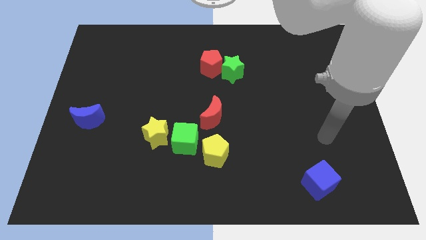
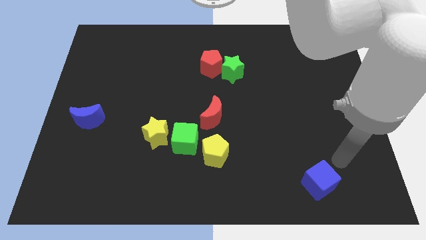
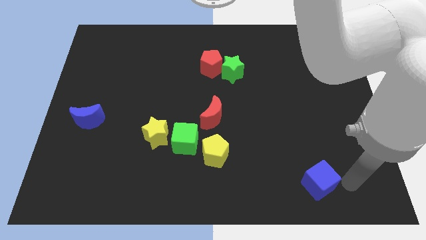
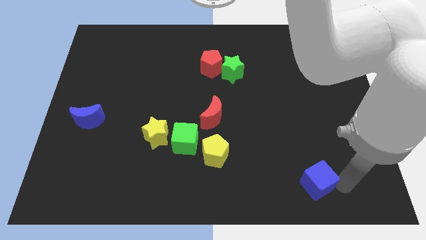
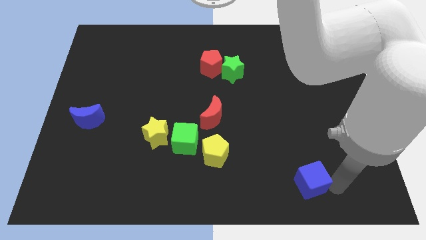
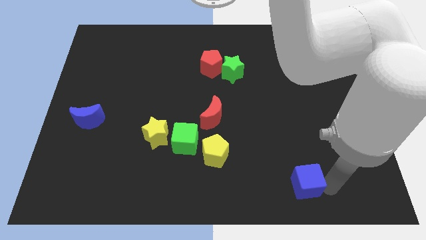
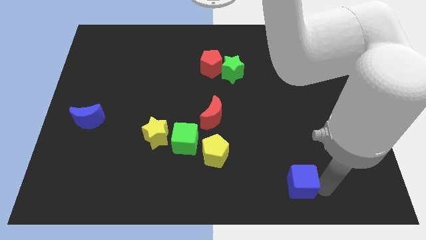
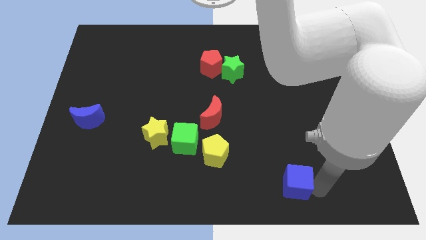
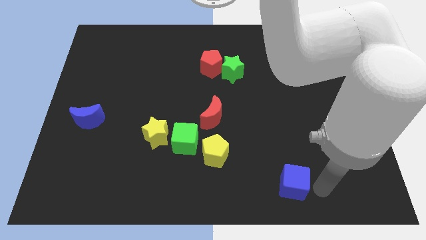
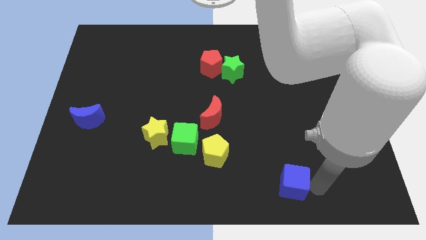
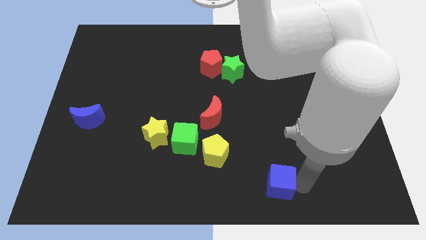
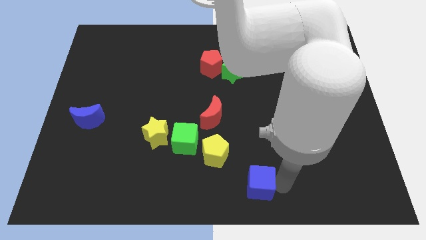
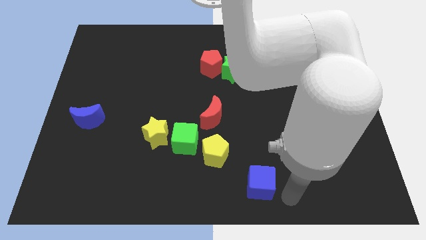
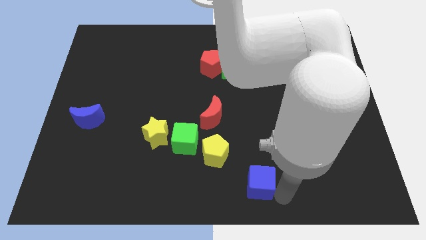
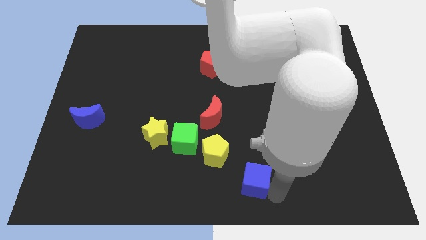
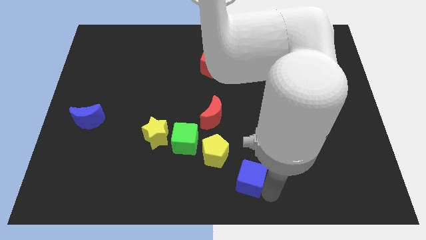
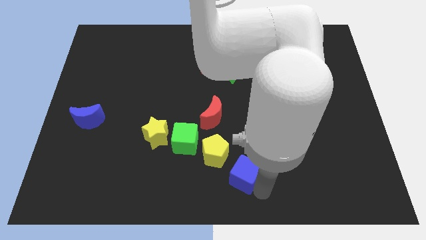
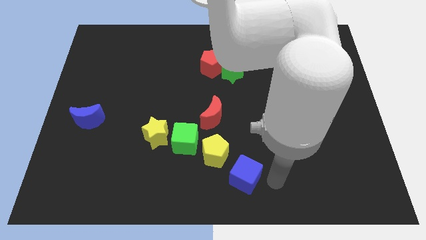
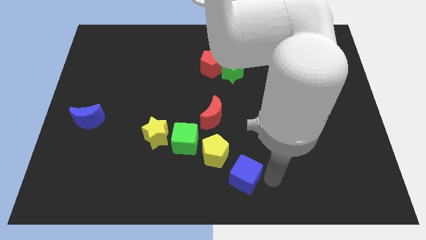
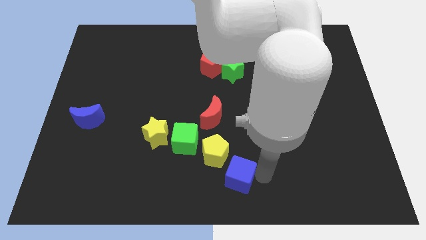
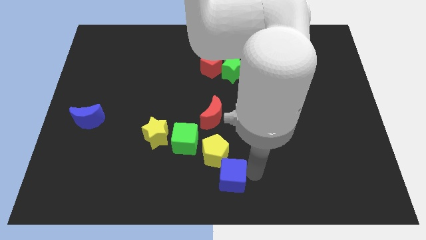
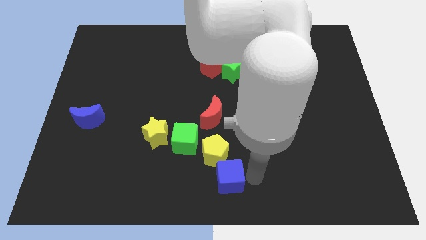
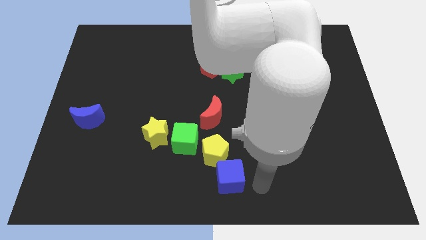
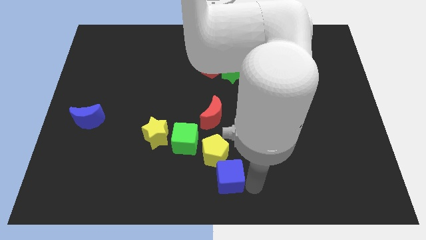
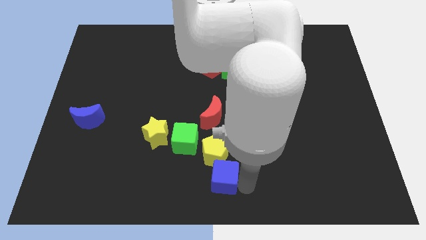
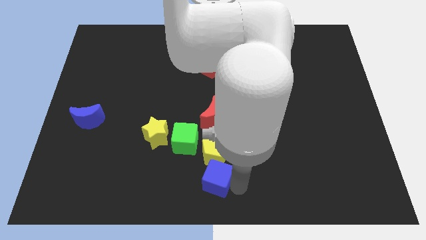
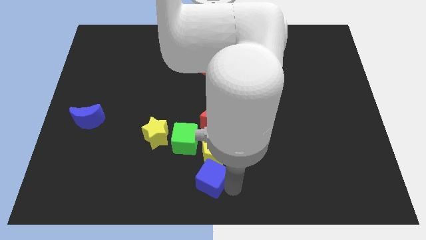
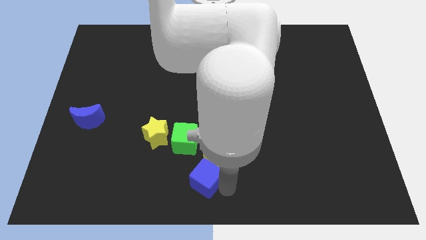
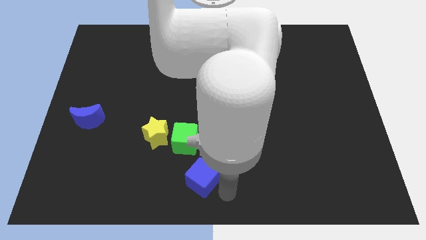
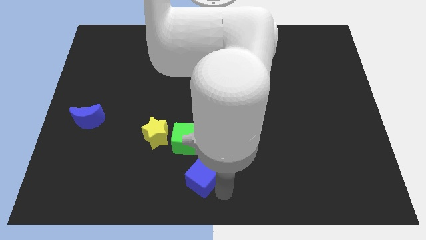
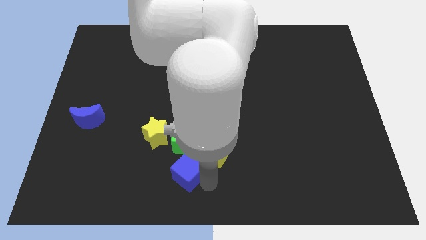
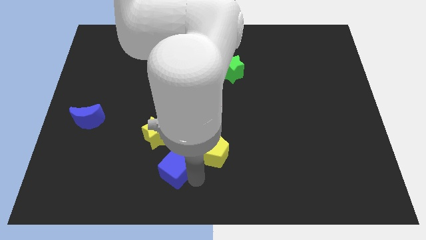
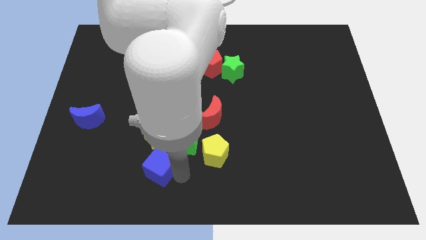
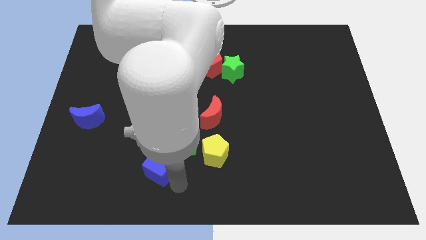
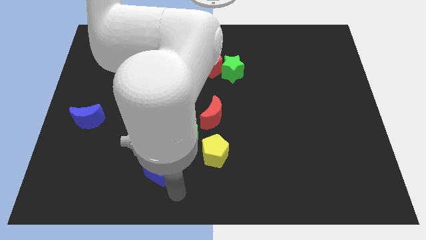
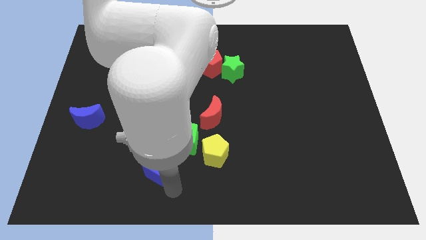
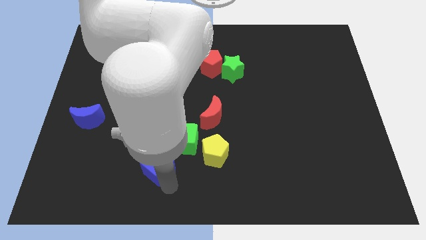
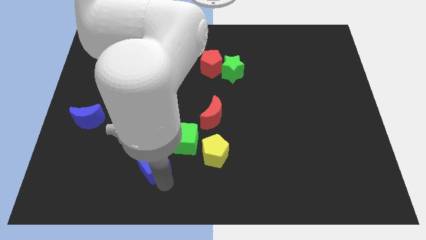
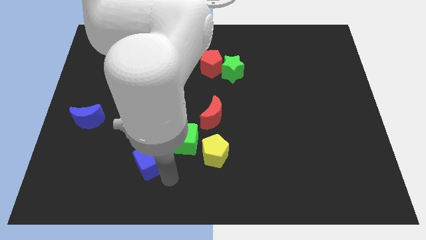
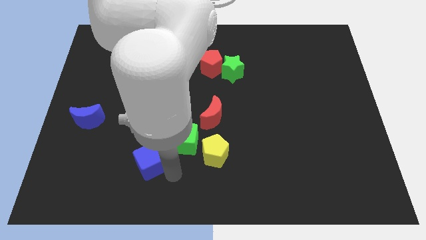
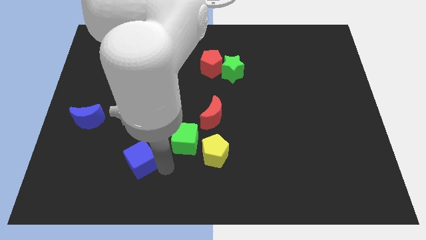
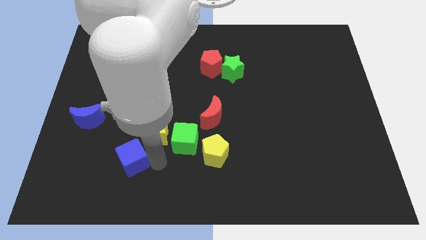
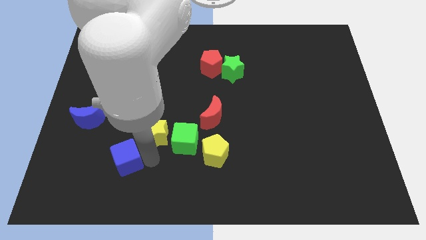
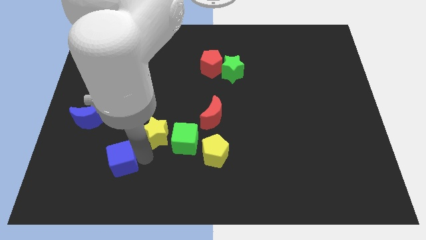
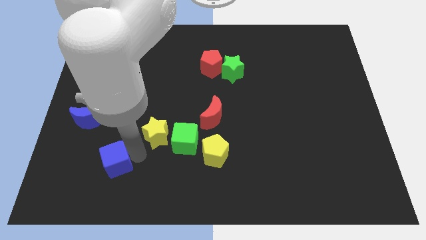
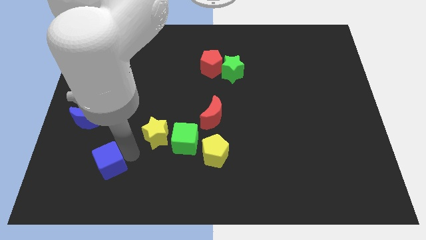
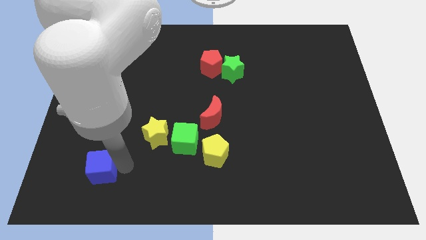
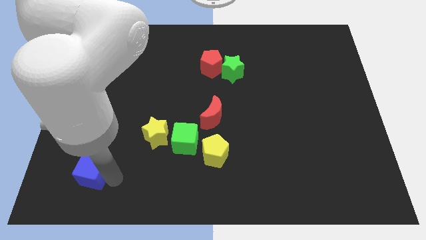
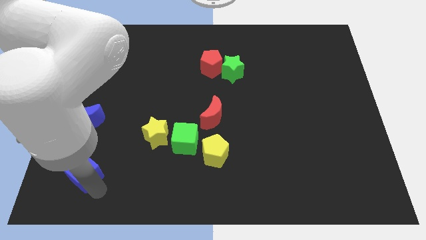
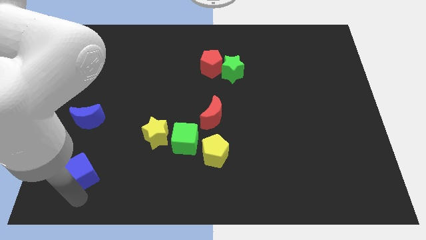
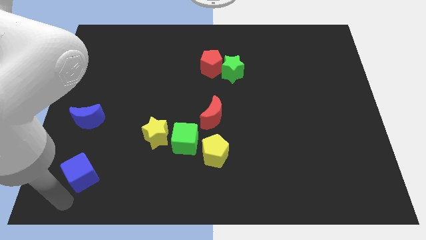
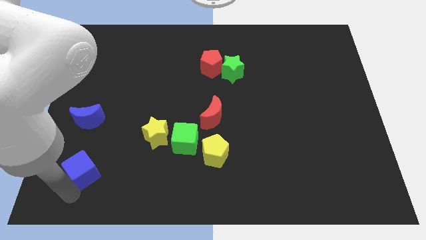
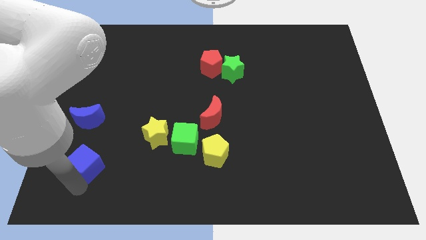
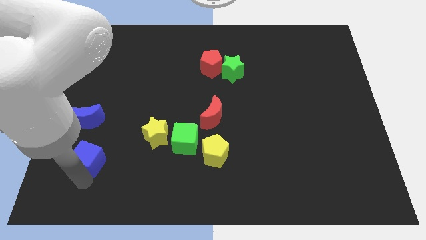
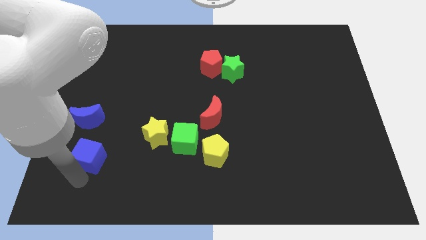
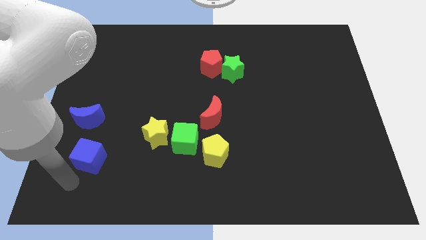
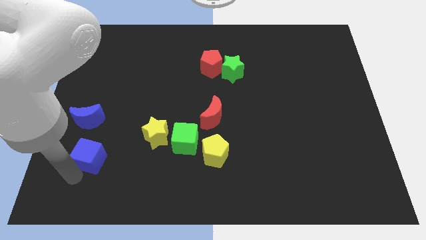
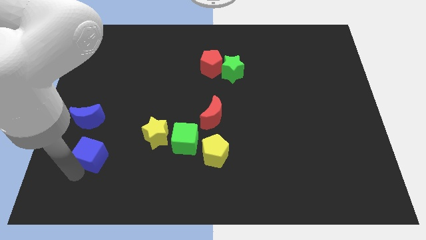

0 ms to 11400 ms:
move the blue cube diagonally down and to the right of the blue moon

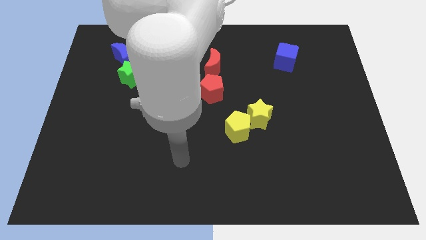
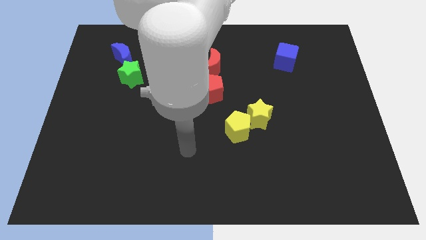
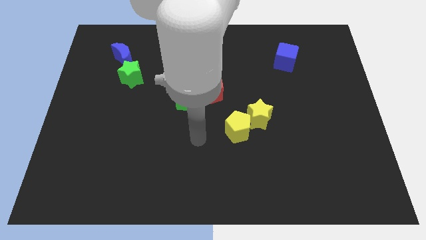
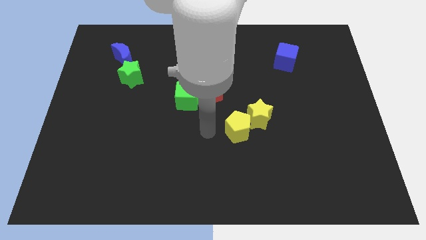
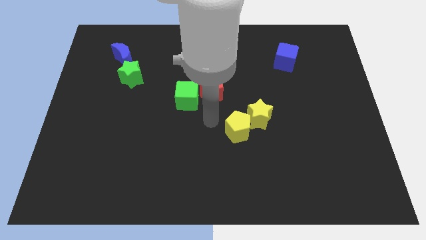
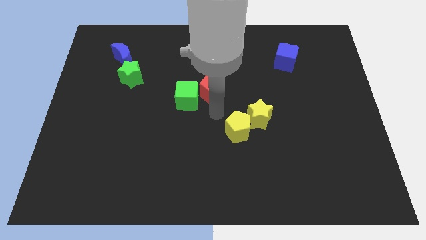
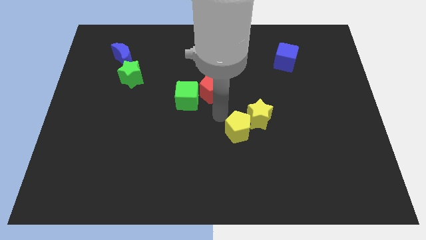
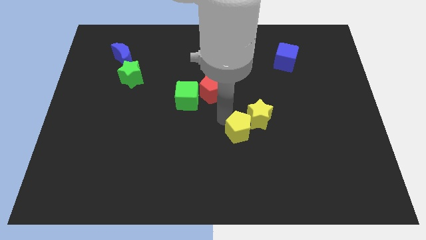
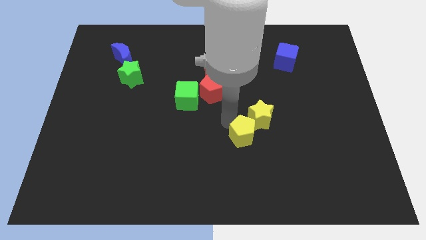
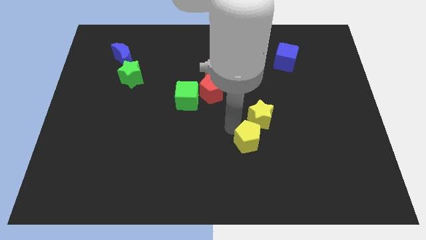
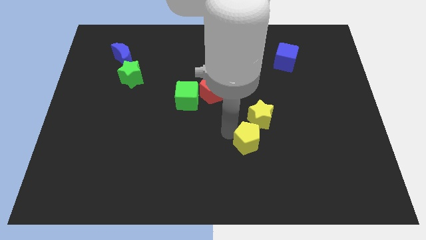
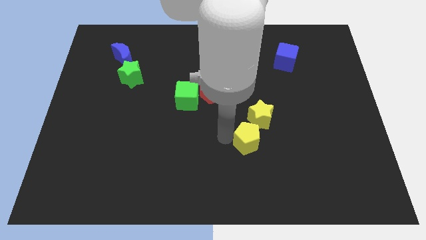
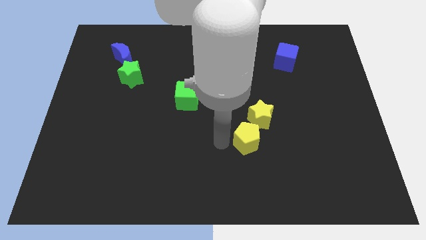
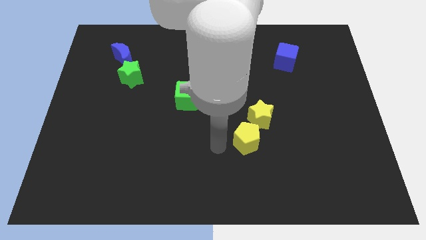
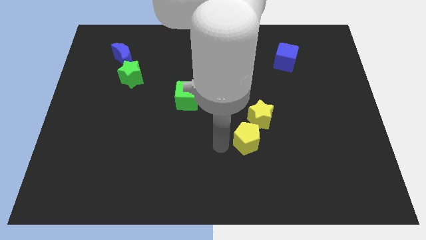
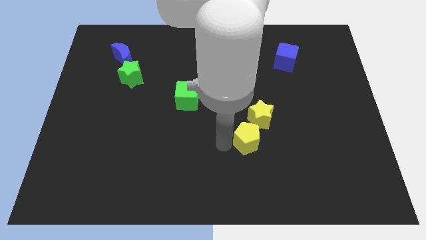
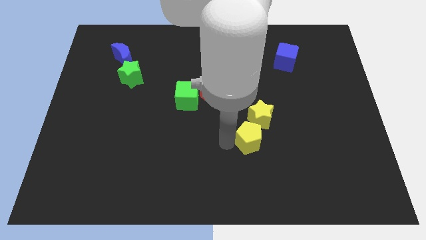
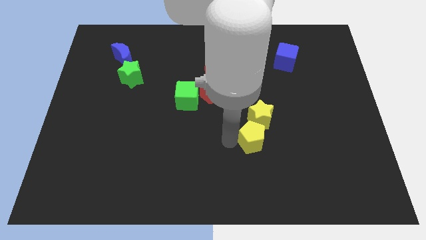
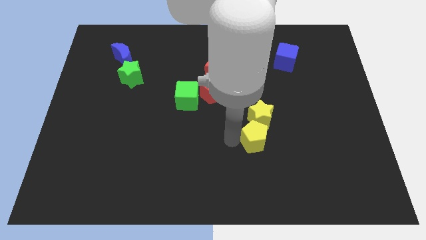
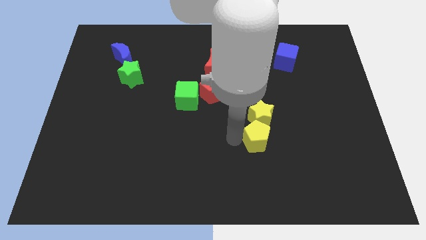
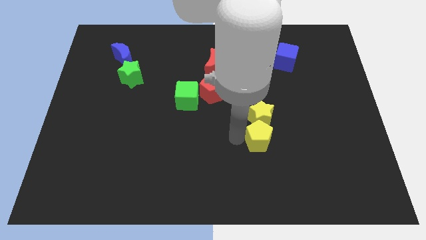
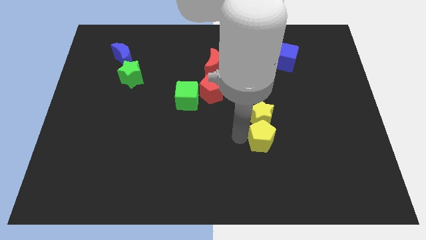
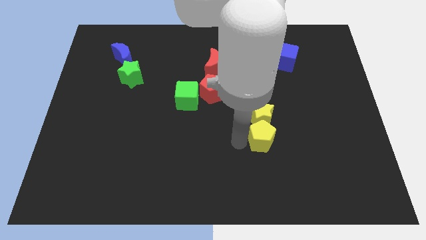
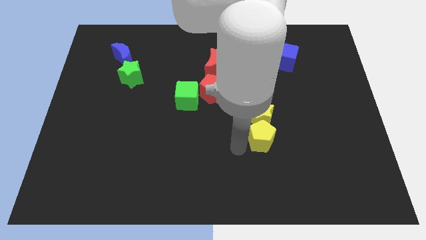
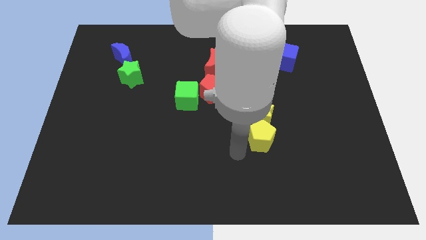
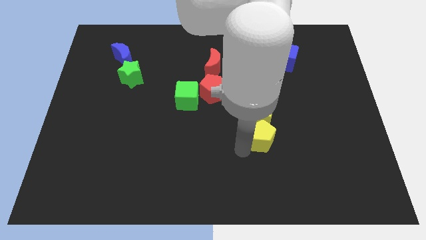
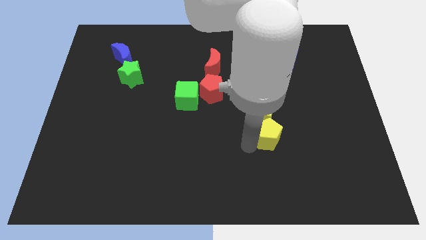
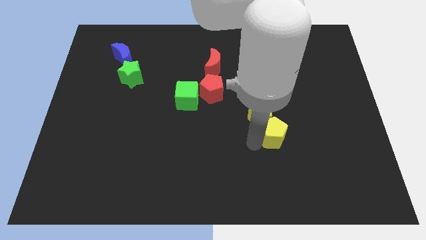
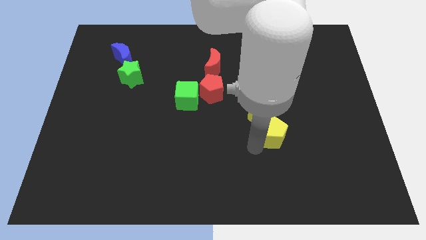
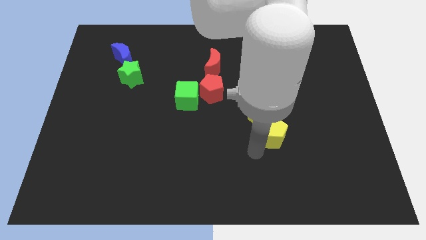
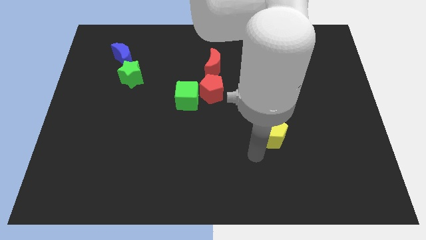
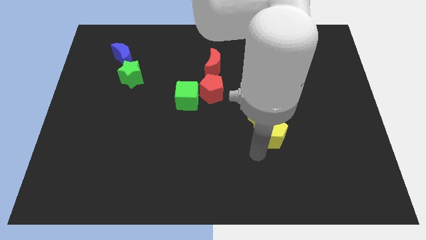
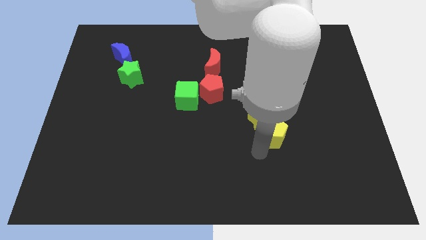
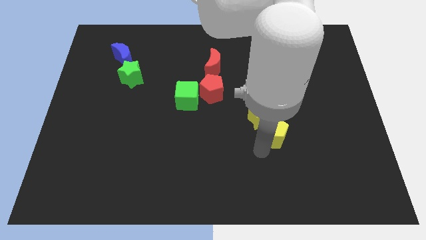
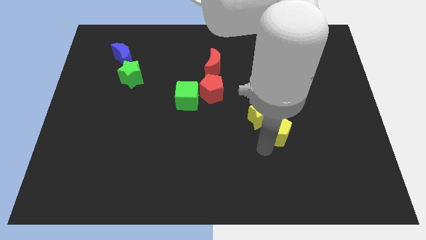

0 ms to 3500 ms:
slide the yellow pentagon to the right side of the yellow star
